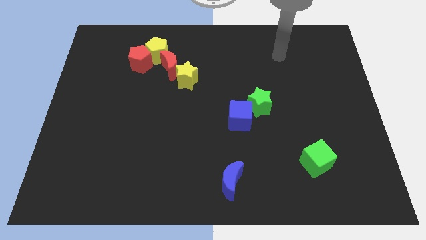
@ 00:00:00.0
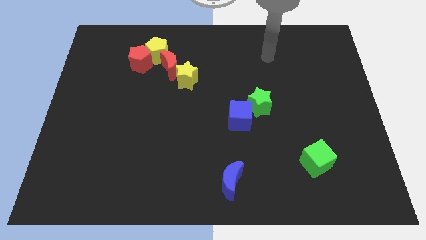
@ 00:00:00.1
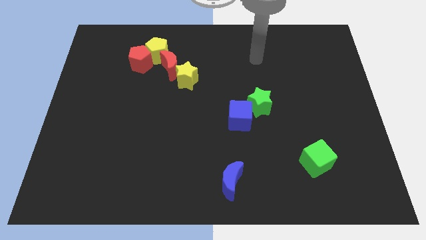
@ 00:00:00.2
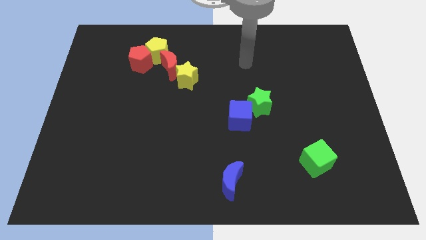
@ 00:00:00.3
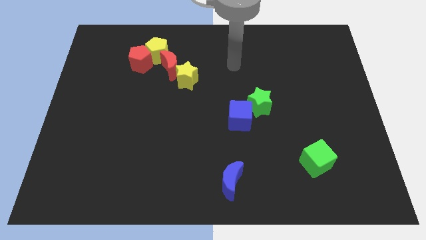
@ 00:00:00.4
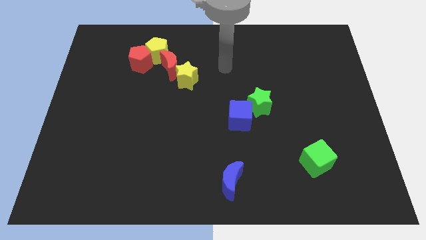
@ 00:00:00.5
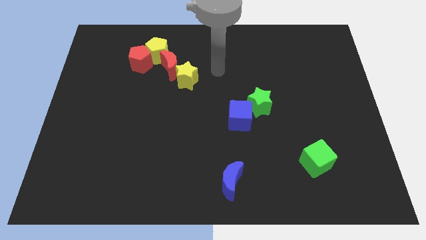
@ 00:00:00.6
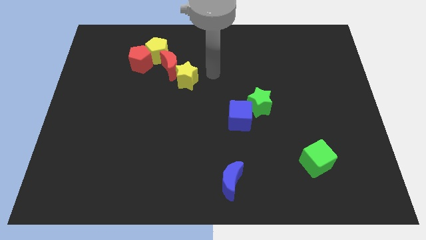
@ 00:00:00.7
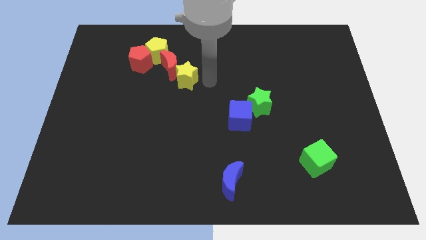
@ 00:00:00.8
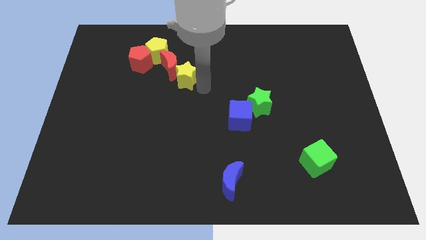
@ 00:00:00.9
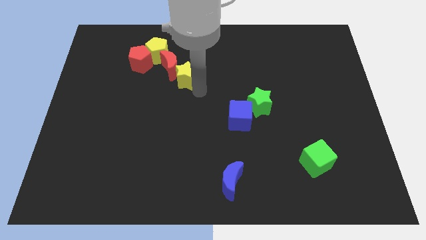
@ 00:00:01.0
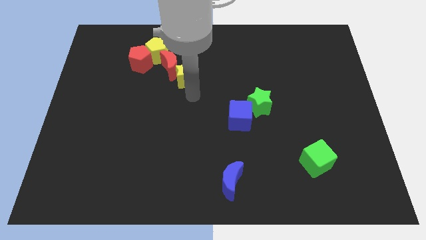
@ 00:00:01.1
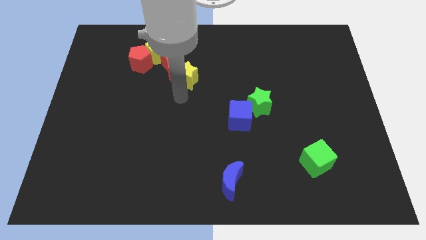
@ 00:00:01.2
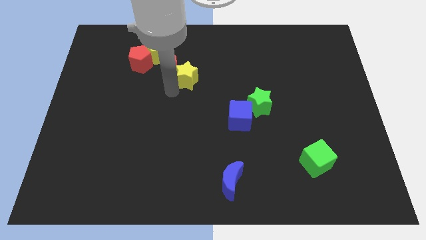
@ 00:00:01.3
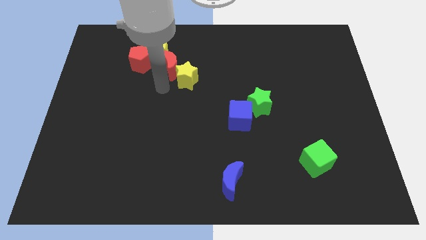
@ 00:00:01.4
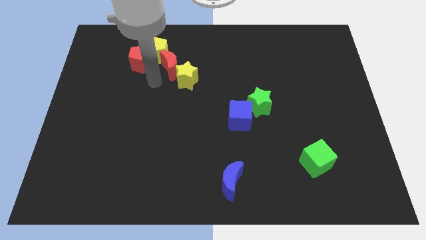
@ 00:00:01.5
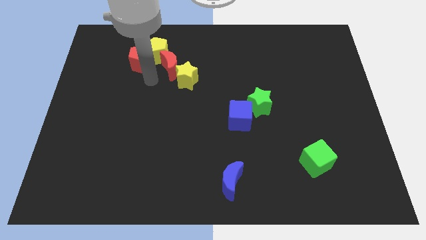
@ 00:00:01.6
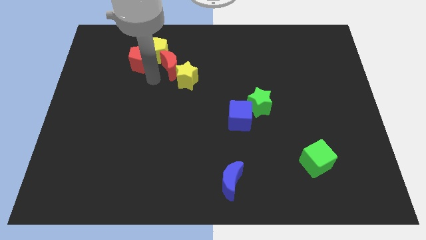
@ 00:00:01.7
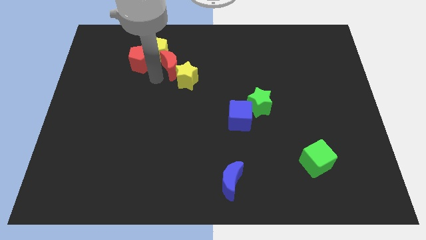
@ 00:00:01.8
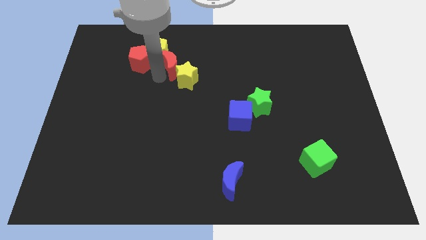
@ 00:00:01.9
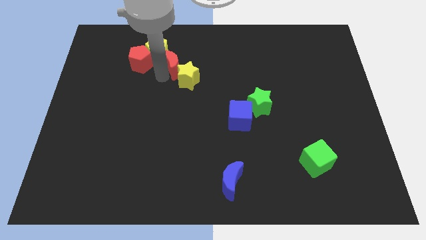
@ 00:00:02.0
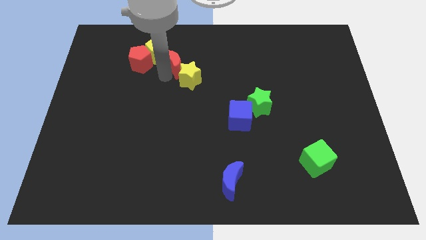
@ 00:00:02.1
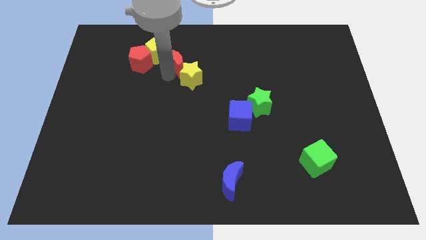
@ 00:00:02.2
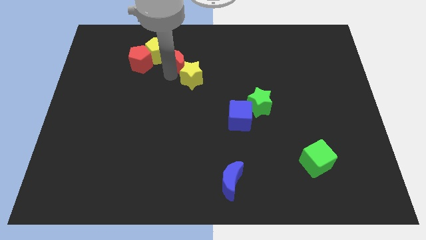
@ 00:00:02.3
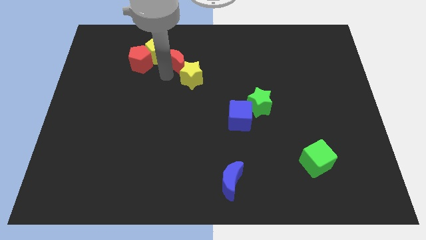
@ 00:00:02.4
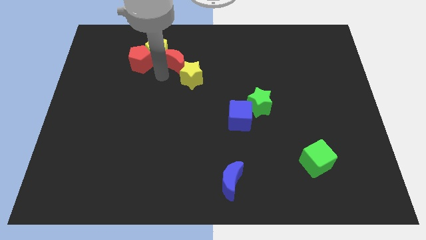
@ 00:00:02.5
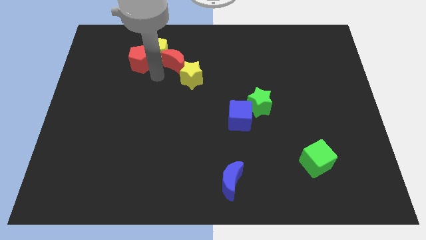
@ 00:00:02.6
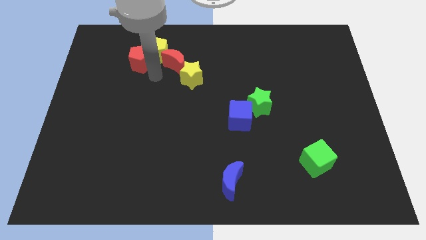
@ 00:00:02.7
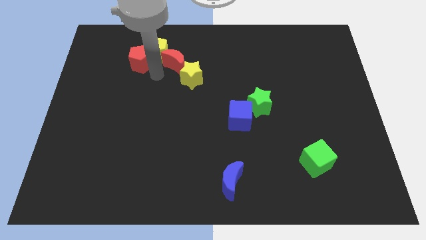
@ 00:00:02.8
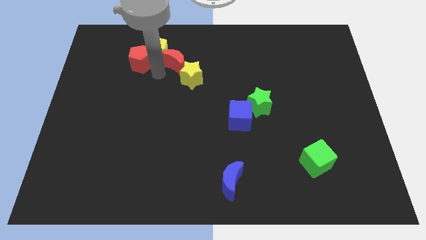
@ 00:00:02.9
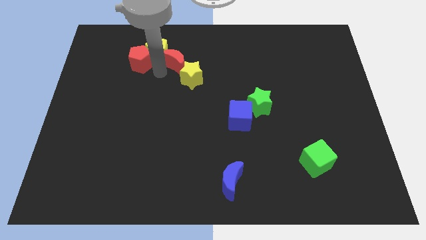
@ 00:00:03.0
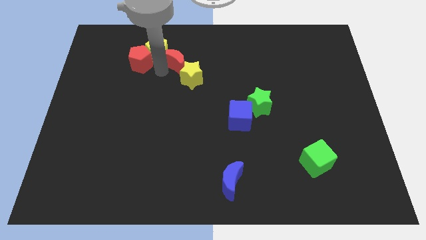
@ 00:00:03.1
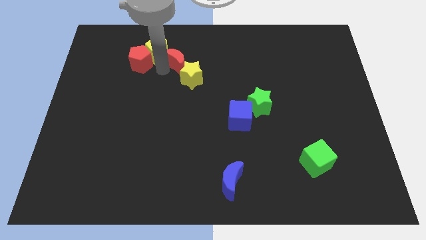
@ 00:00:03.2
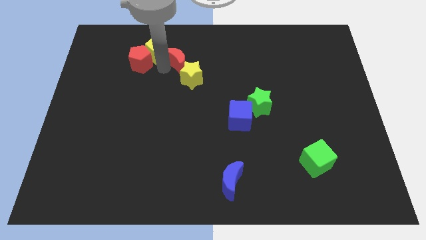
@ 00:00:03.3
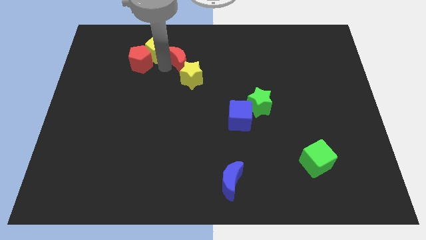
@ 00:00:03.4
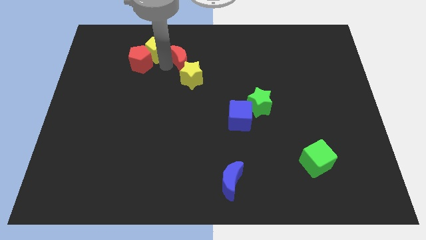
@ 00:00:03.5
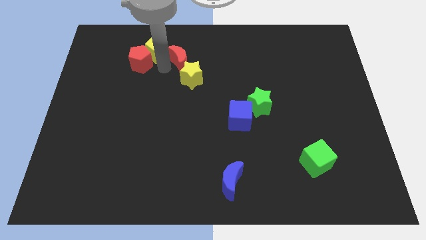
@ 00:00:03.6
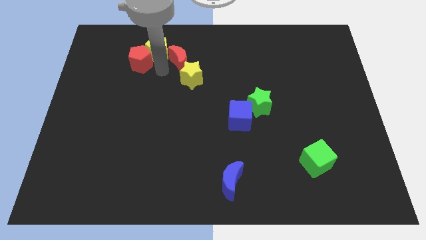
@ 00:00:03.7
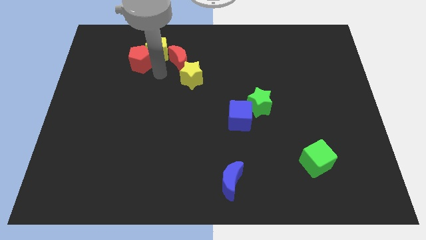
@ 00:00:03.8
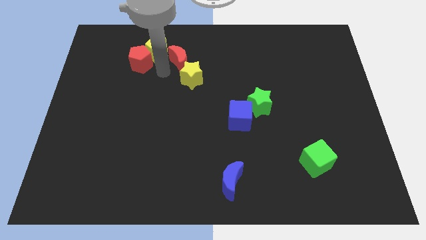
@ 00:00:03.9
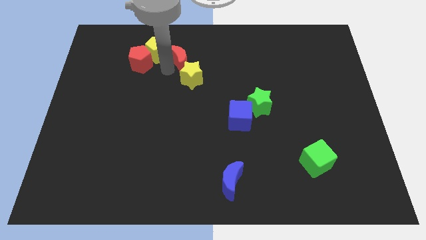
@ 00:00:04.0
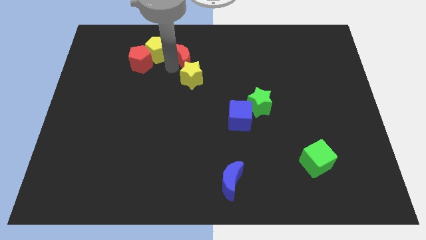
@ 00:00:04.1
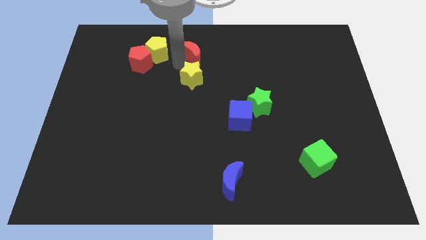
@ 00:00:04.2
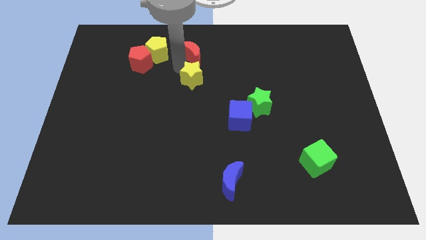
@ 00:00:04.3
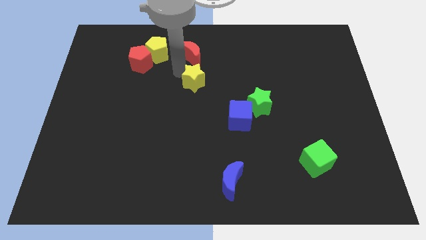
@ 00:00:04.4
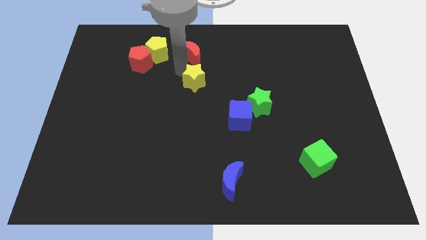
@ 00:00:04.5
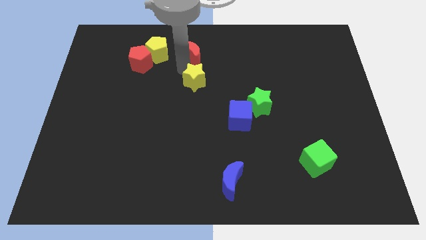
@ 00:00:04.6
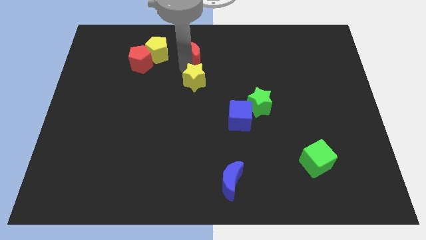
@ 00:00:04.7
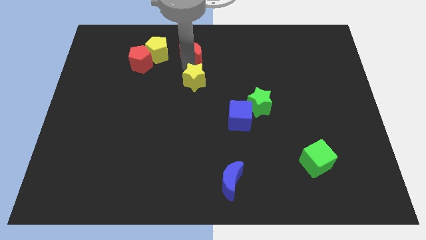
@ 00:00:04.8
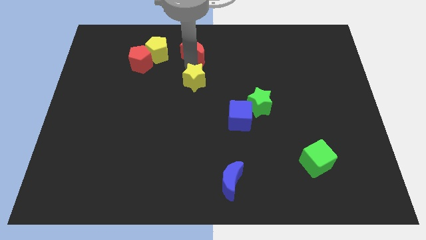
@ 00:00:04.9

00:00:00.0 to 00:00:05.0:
put the red moon to the towards your base

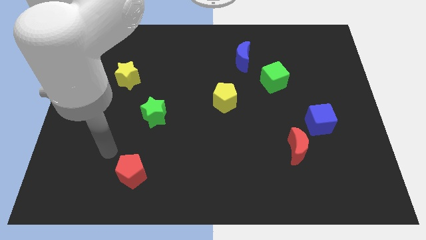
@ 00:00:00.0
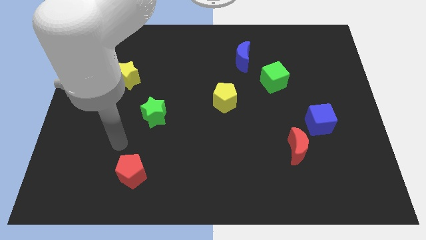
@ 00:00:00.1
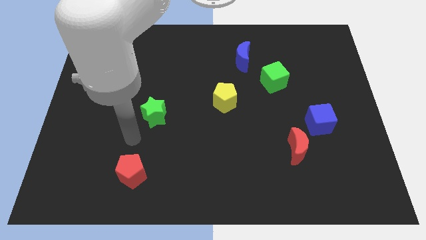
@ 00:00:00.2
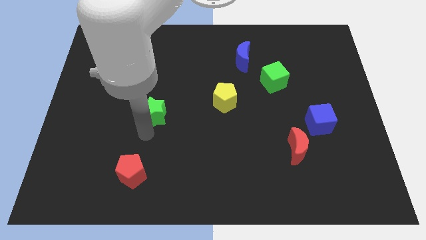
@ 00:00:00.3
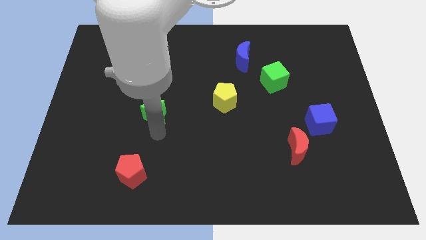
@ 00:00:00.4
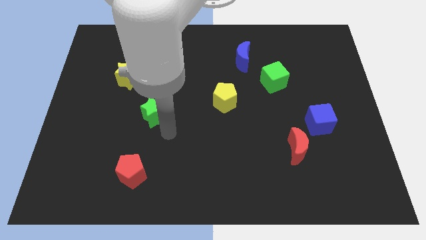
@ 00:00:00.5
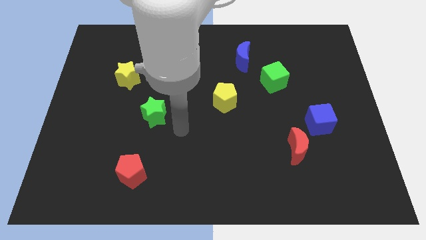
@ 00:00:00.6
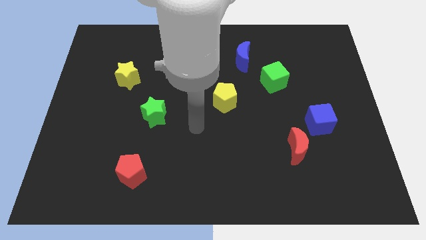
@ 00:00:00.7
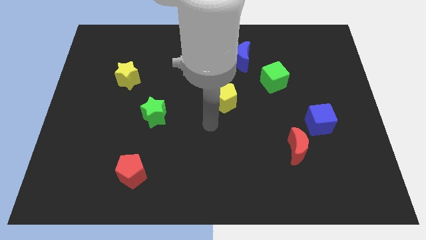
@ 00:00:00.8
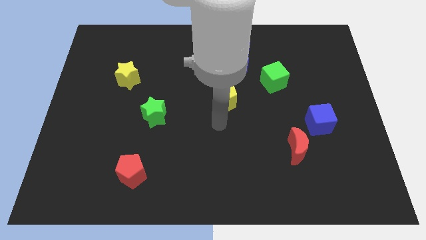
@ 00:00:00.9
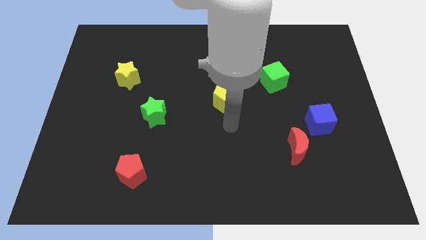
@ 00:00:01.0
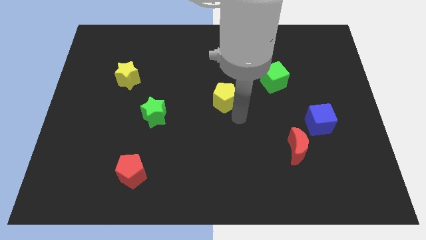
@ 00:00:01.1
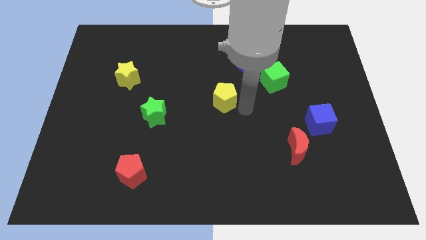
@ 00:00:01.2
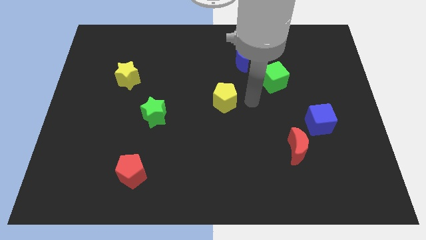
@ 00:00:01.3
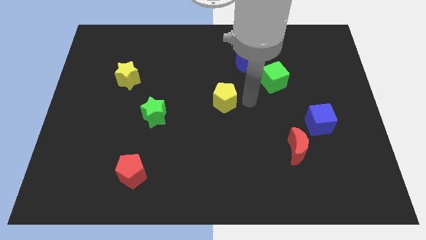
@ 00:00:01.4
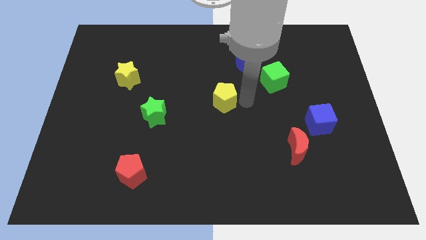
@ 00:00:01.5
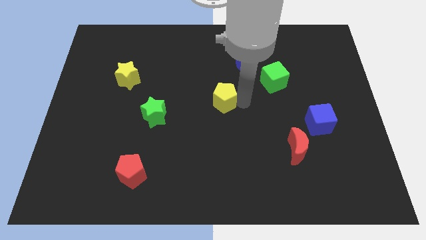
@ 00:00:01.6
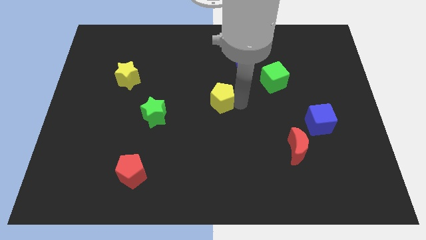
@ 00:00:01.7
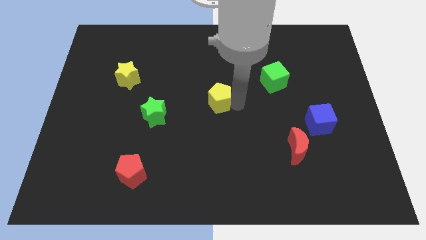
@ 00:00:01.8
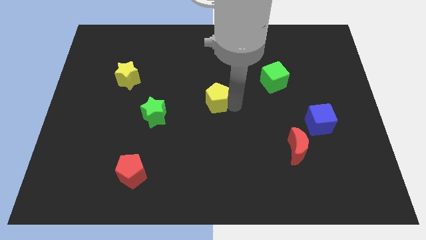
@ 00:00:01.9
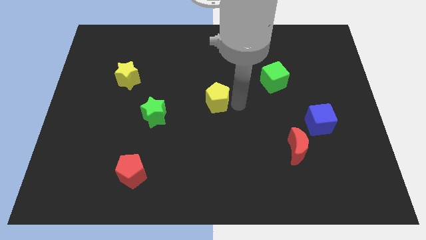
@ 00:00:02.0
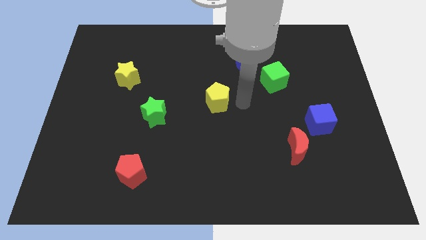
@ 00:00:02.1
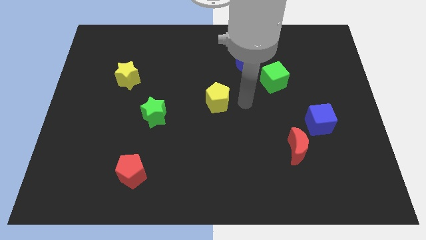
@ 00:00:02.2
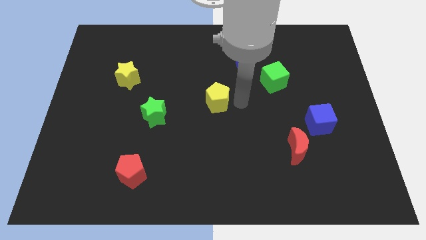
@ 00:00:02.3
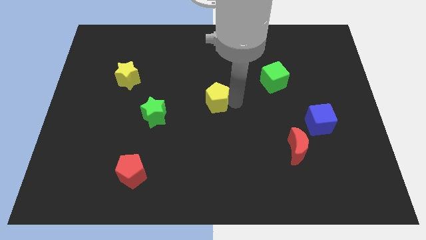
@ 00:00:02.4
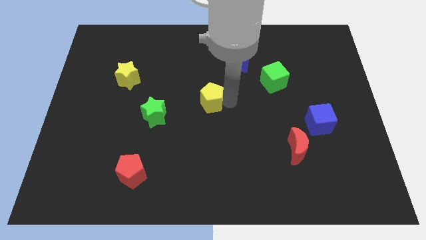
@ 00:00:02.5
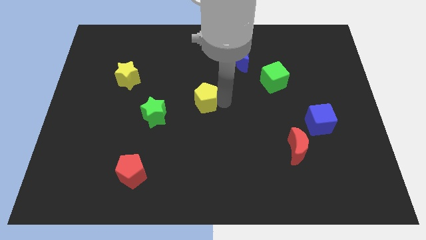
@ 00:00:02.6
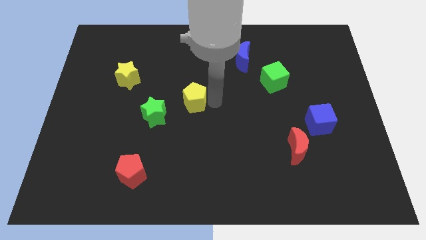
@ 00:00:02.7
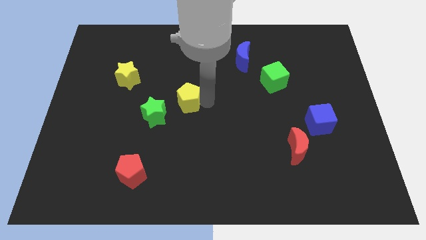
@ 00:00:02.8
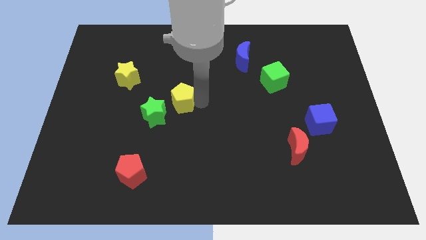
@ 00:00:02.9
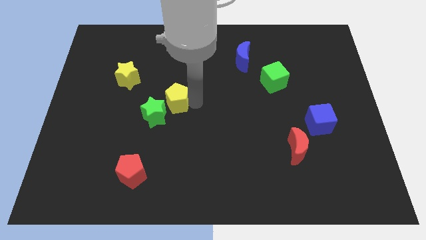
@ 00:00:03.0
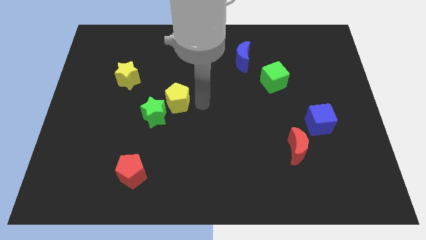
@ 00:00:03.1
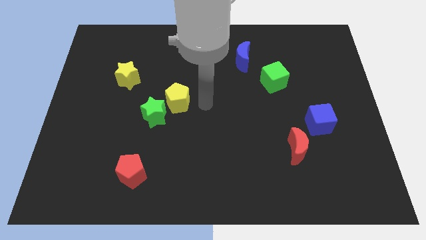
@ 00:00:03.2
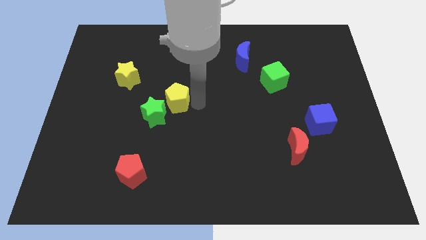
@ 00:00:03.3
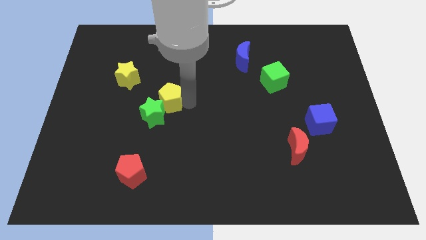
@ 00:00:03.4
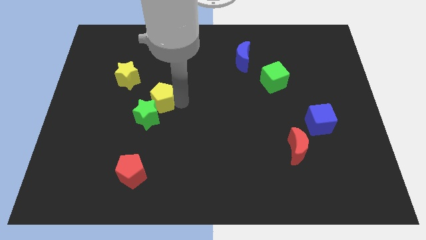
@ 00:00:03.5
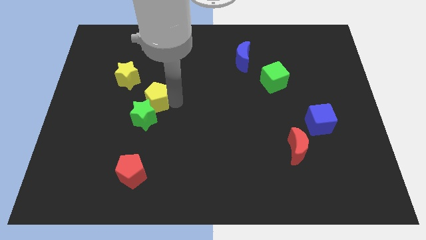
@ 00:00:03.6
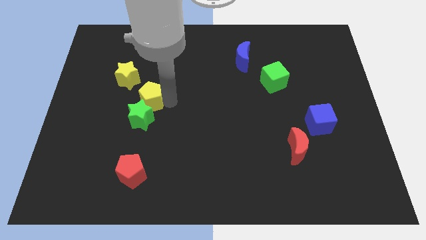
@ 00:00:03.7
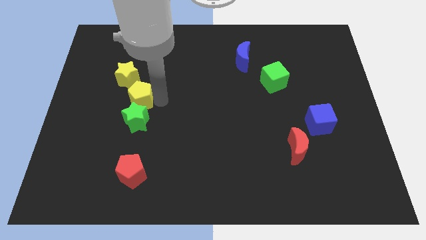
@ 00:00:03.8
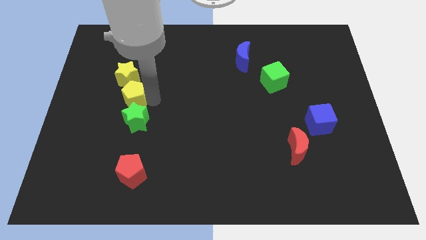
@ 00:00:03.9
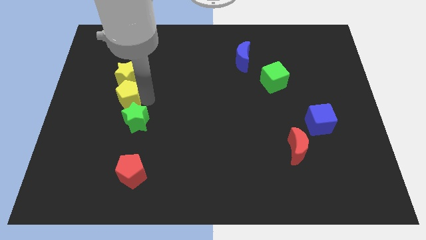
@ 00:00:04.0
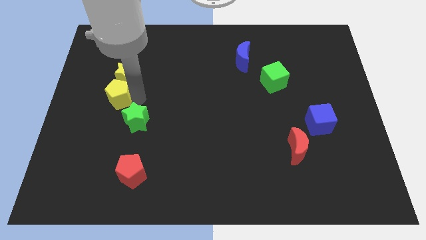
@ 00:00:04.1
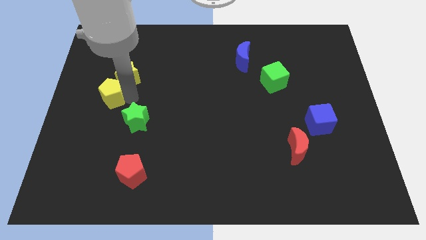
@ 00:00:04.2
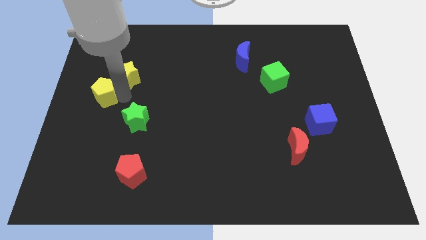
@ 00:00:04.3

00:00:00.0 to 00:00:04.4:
put the yellow pentagon to the left side
